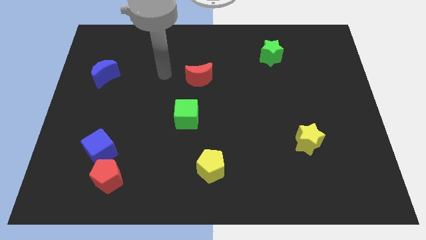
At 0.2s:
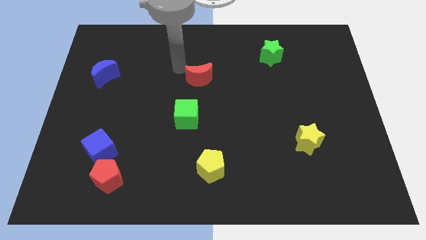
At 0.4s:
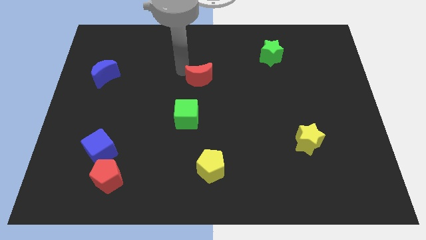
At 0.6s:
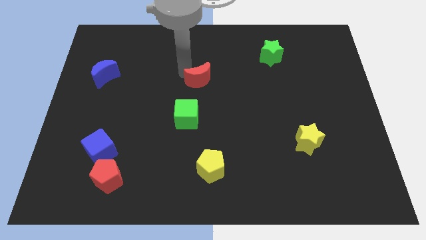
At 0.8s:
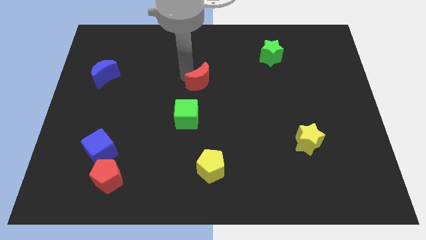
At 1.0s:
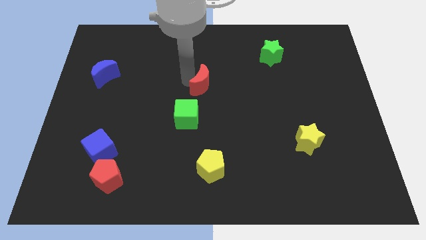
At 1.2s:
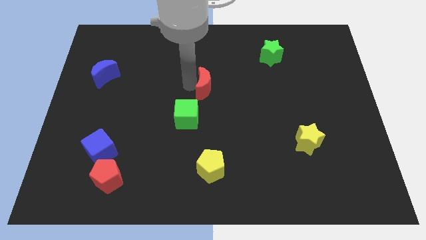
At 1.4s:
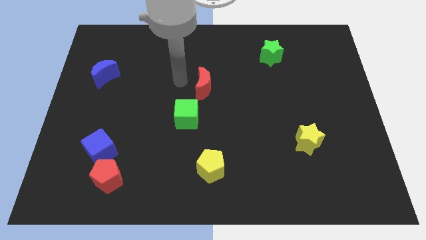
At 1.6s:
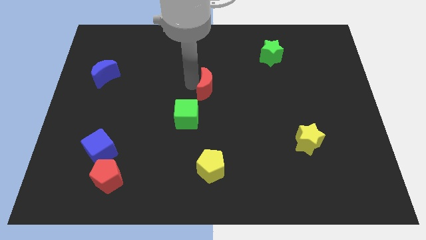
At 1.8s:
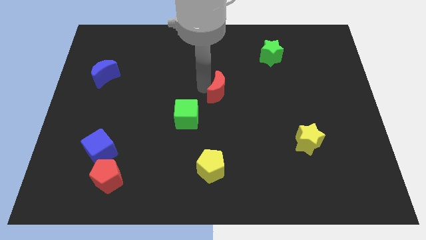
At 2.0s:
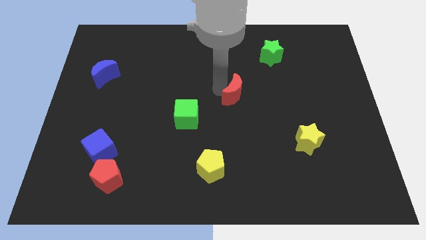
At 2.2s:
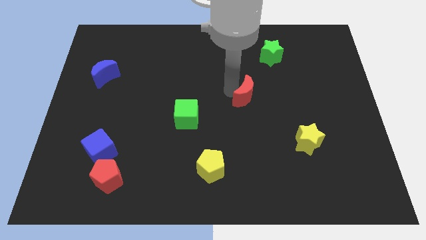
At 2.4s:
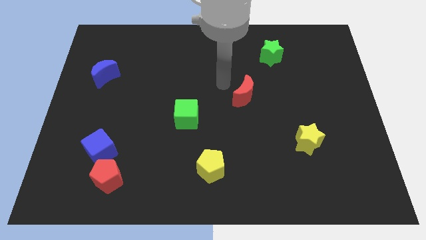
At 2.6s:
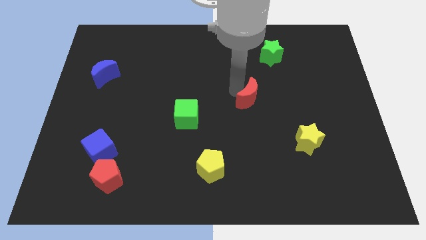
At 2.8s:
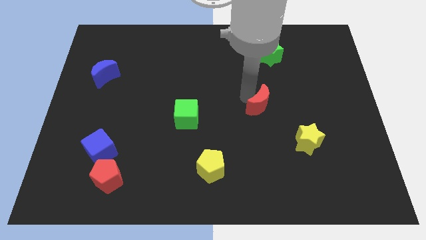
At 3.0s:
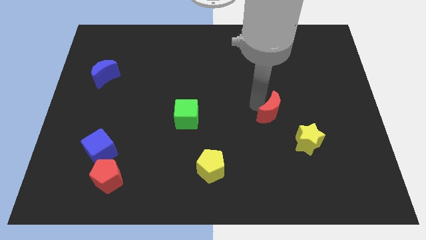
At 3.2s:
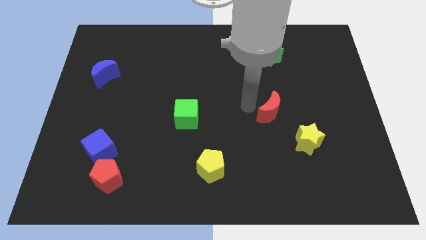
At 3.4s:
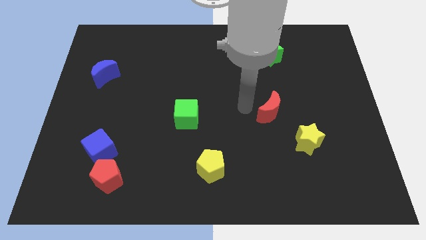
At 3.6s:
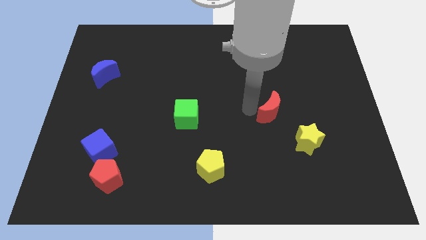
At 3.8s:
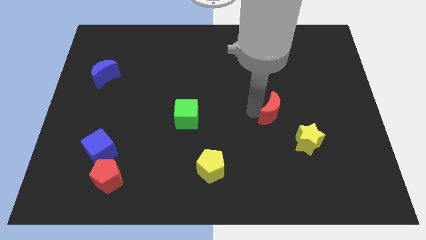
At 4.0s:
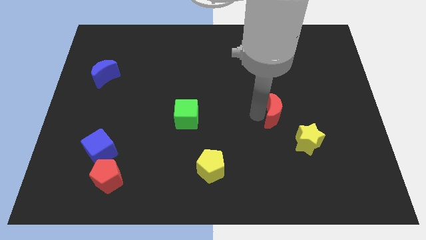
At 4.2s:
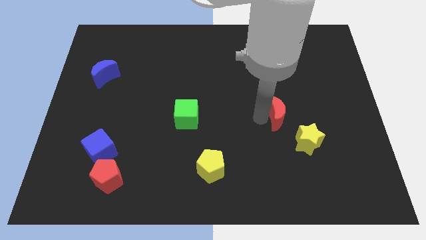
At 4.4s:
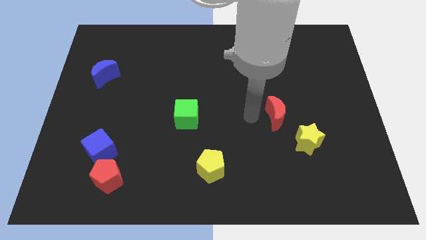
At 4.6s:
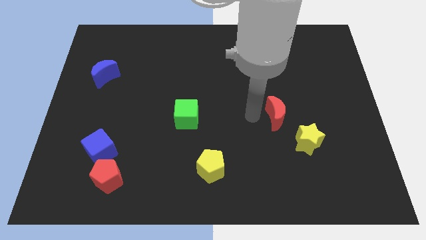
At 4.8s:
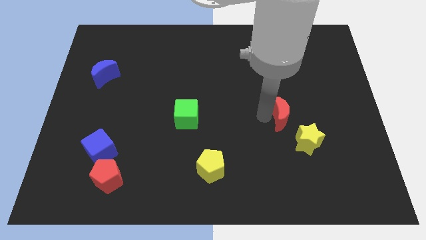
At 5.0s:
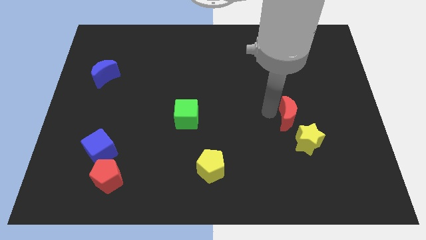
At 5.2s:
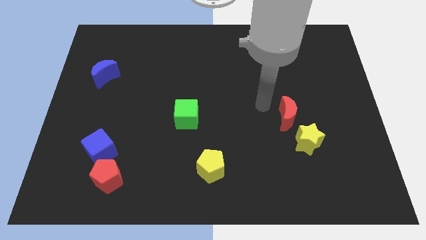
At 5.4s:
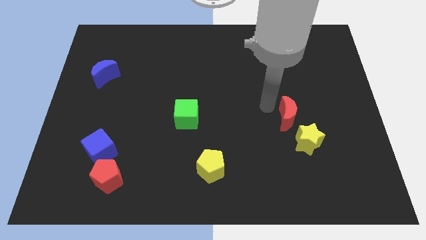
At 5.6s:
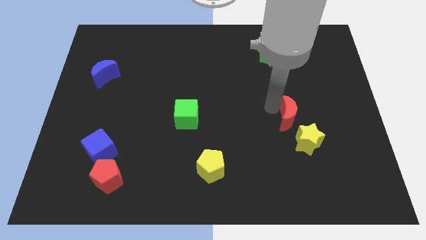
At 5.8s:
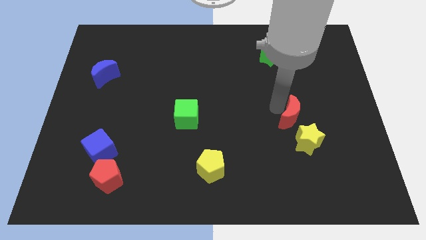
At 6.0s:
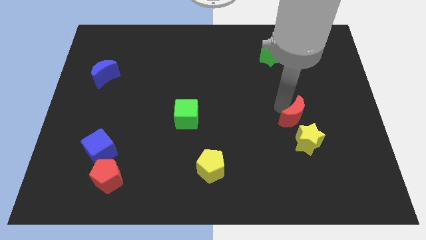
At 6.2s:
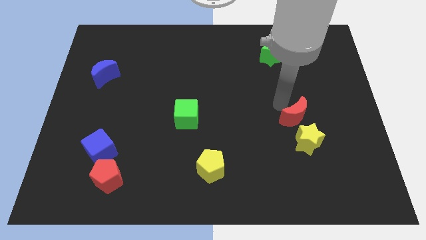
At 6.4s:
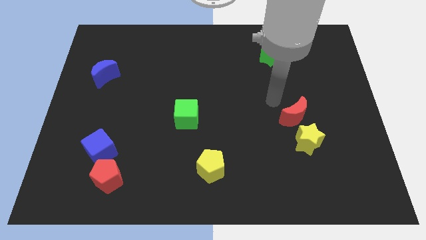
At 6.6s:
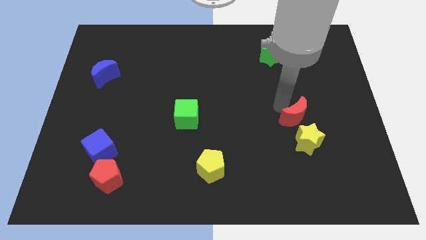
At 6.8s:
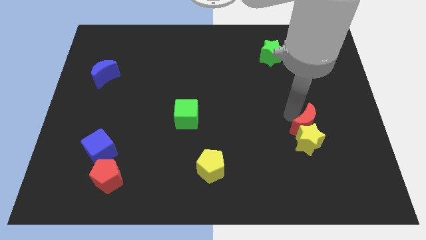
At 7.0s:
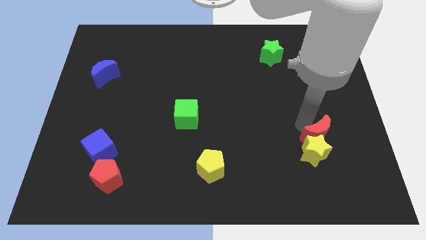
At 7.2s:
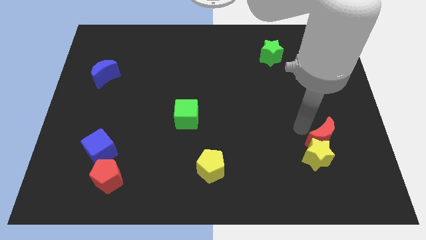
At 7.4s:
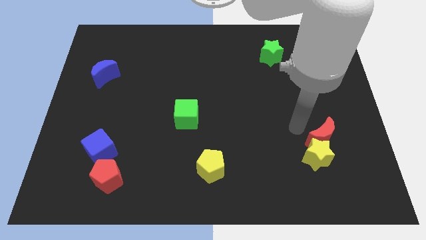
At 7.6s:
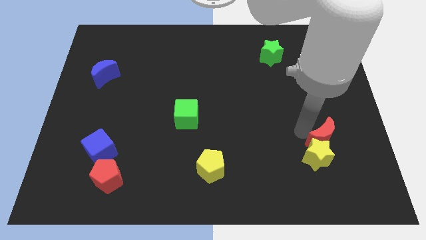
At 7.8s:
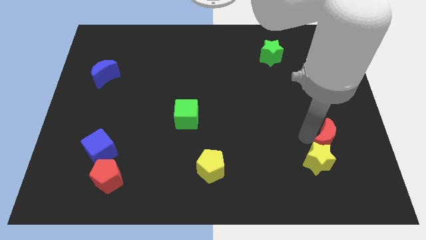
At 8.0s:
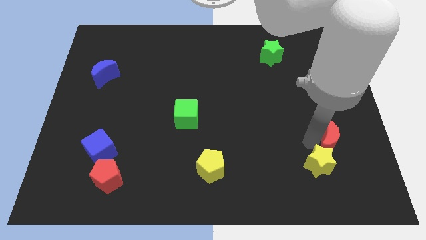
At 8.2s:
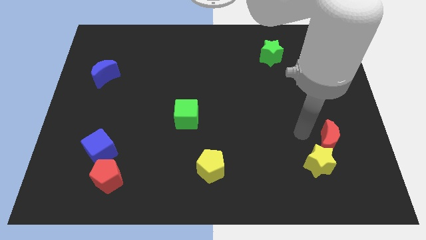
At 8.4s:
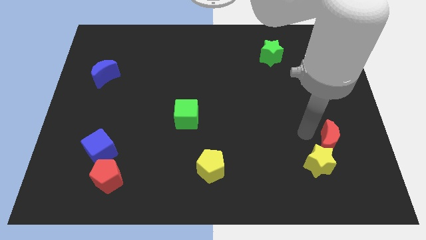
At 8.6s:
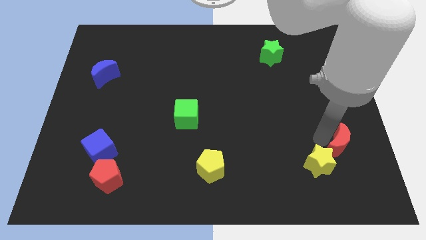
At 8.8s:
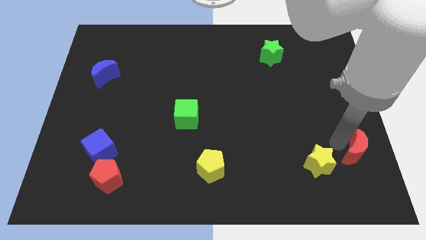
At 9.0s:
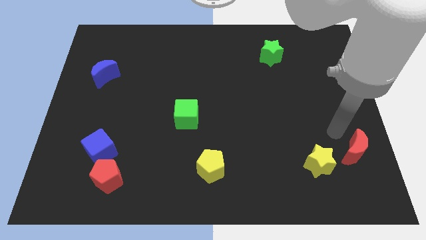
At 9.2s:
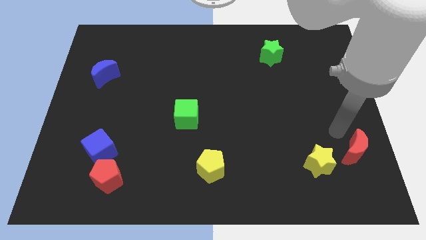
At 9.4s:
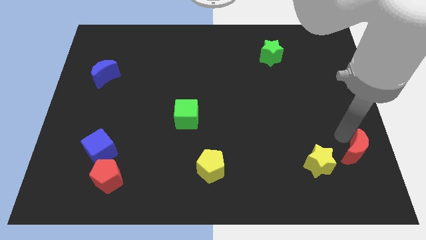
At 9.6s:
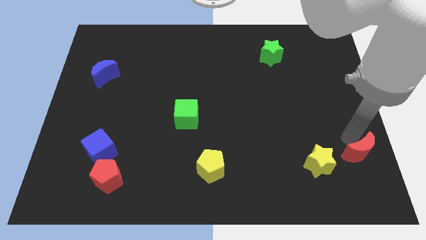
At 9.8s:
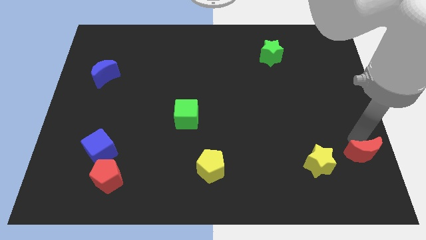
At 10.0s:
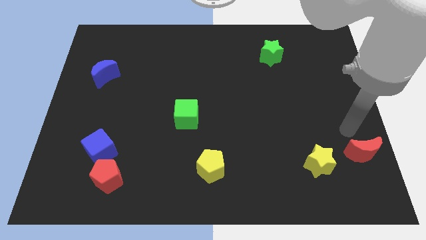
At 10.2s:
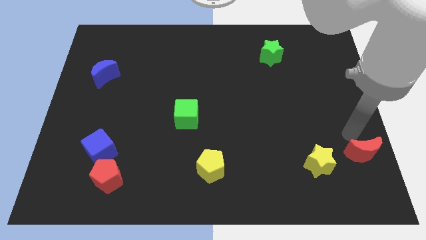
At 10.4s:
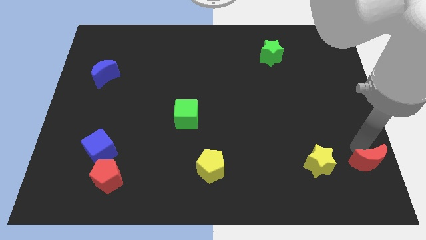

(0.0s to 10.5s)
put the red moon to the bottom right of the board

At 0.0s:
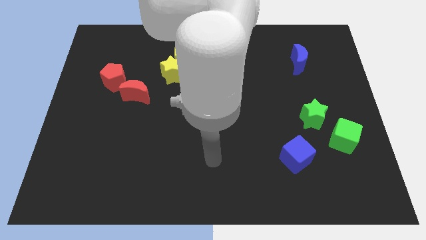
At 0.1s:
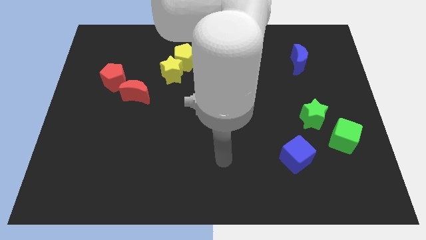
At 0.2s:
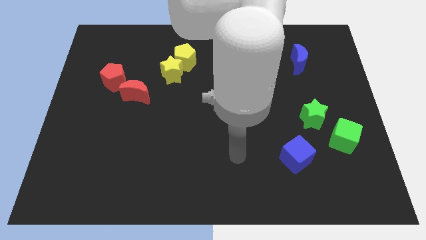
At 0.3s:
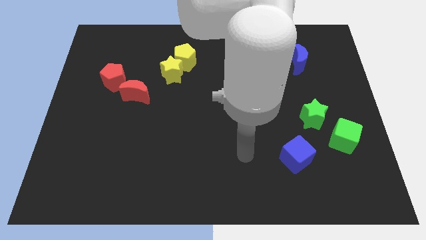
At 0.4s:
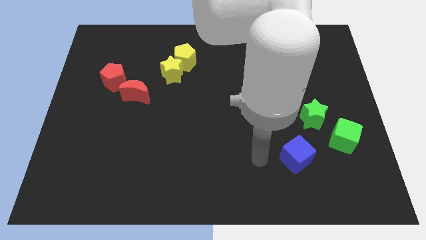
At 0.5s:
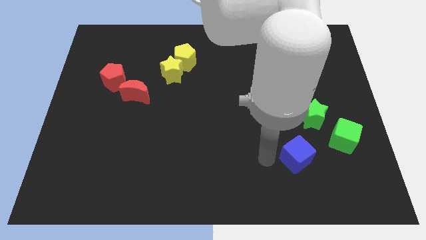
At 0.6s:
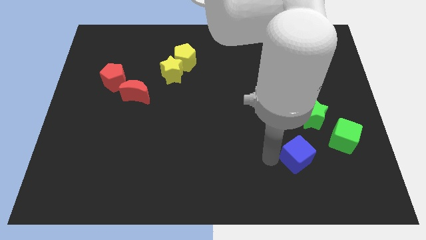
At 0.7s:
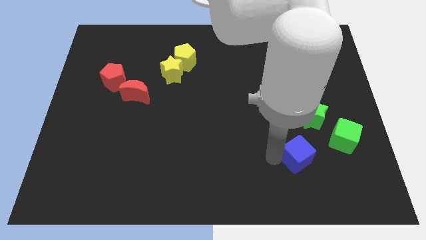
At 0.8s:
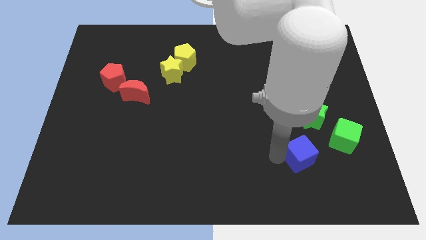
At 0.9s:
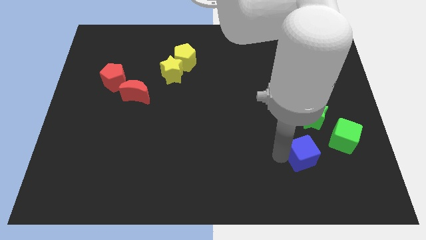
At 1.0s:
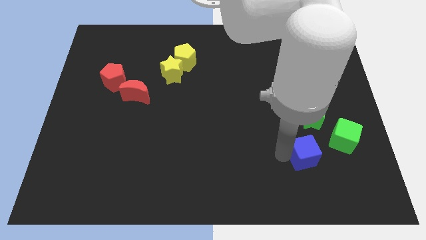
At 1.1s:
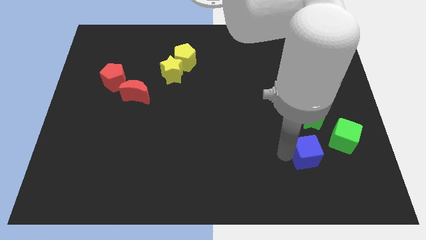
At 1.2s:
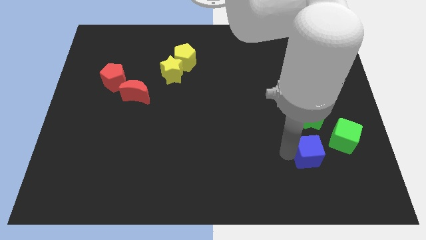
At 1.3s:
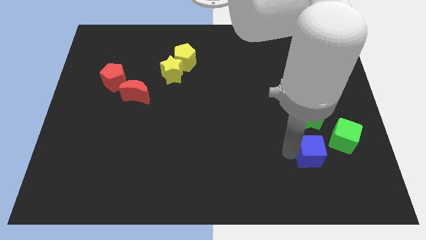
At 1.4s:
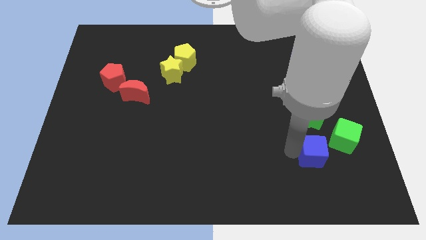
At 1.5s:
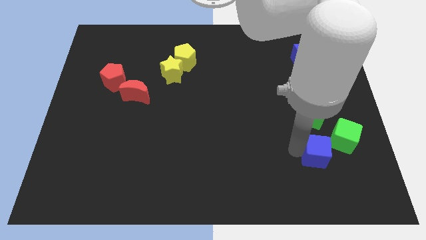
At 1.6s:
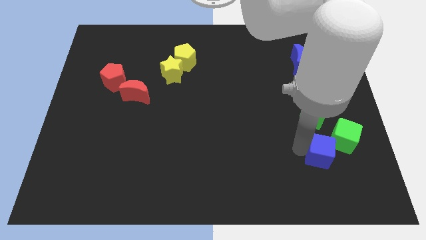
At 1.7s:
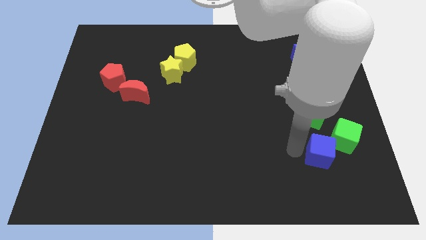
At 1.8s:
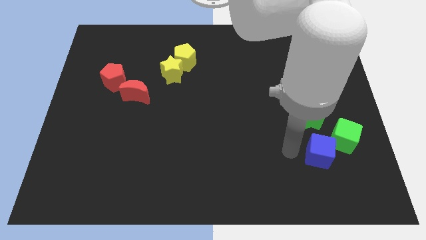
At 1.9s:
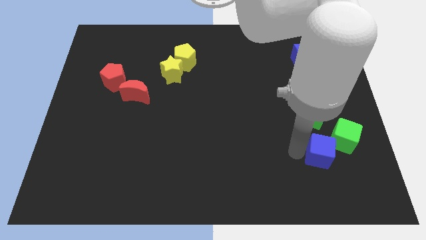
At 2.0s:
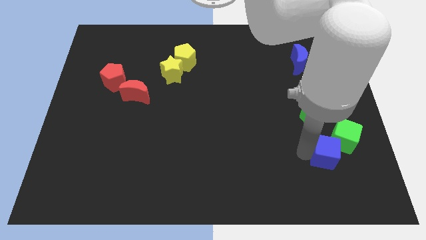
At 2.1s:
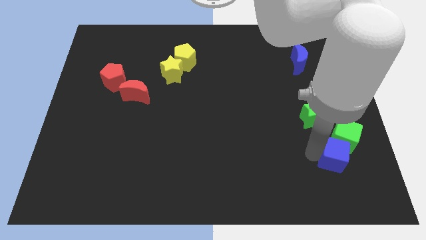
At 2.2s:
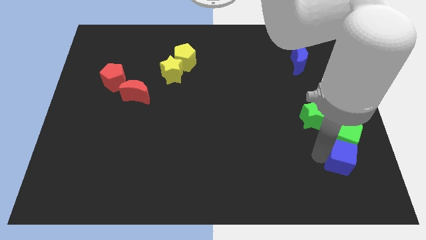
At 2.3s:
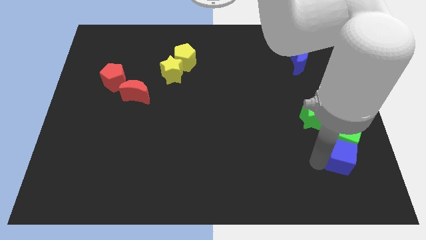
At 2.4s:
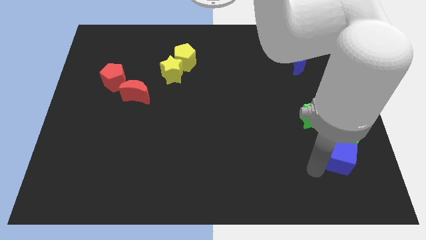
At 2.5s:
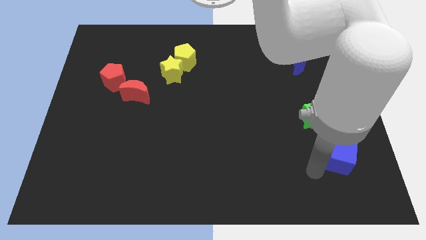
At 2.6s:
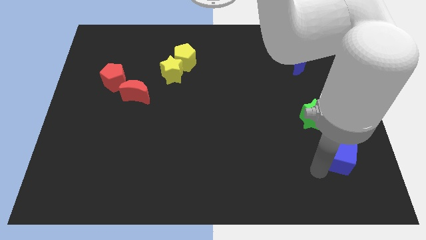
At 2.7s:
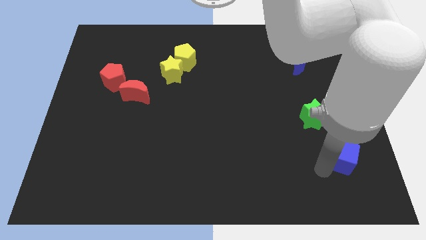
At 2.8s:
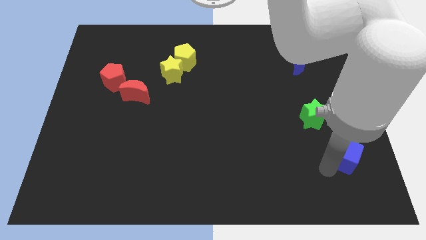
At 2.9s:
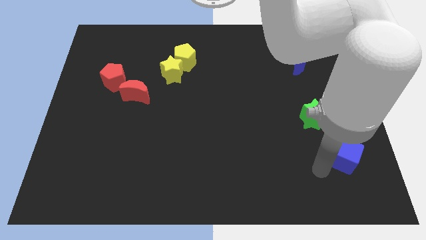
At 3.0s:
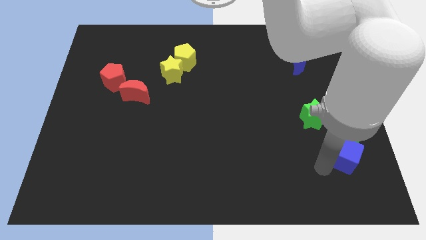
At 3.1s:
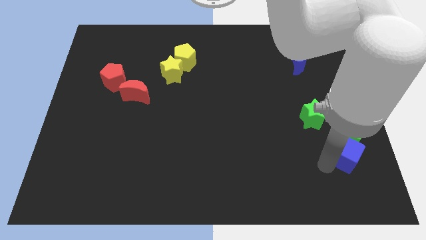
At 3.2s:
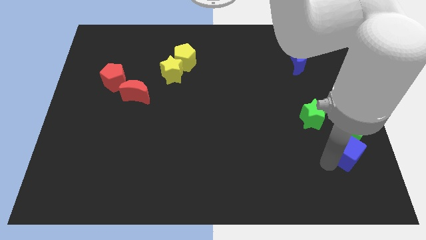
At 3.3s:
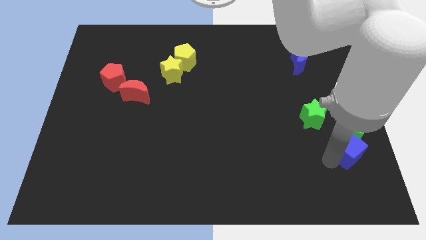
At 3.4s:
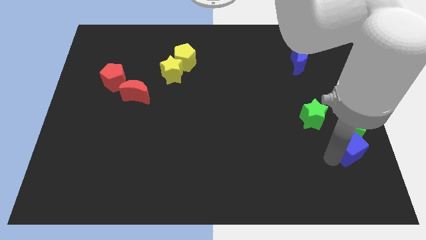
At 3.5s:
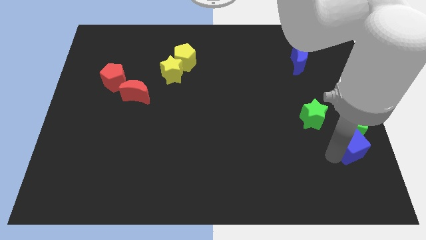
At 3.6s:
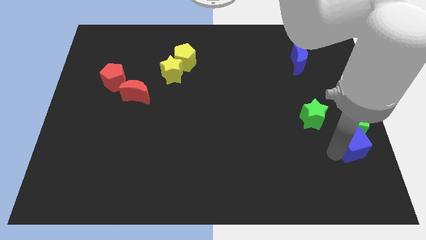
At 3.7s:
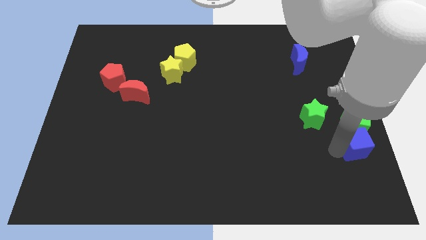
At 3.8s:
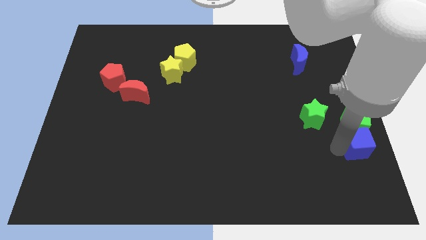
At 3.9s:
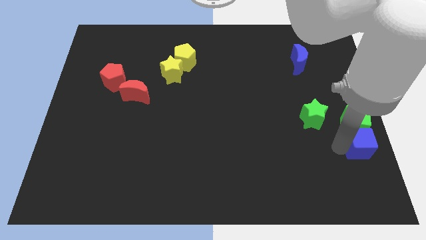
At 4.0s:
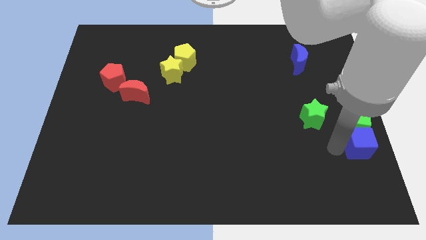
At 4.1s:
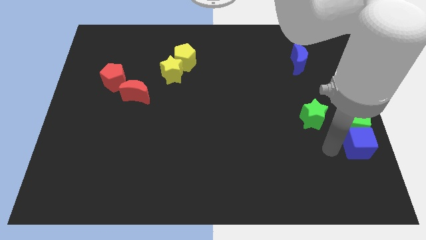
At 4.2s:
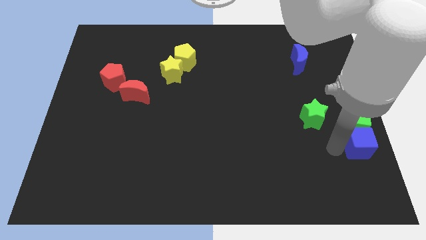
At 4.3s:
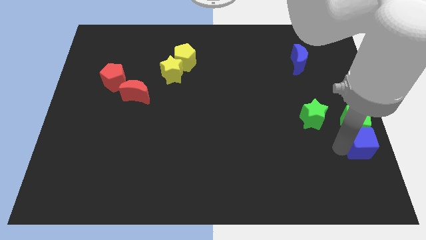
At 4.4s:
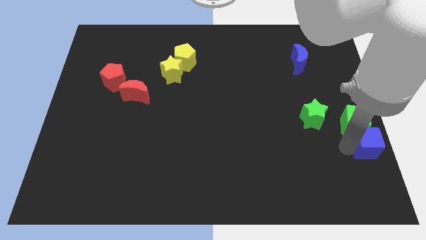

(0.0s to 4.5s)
put the blue cube to the center right
